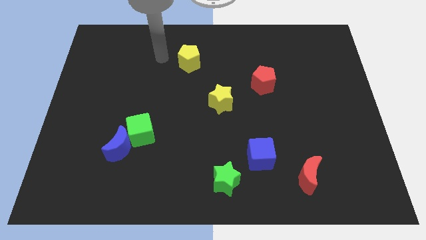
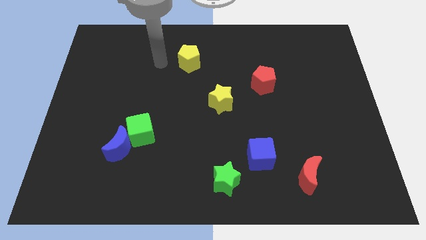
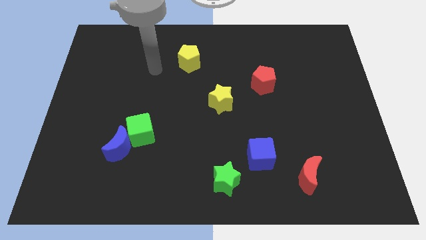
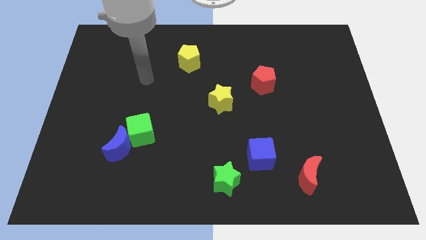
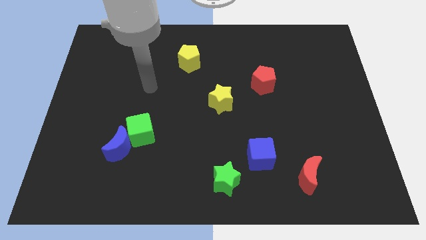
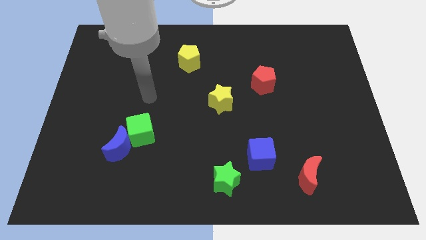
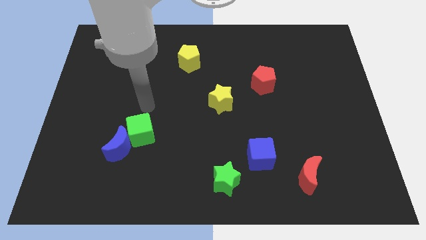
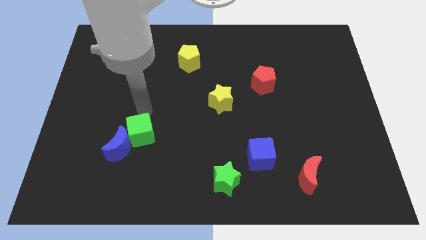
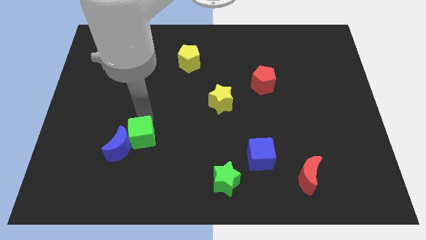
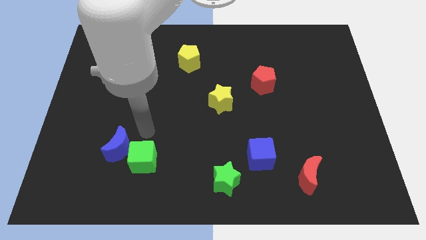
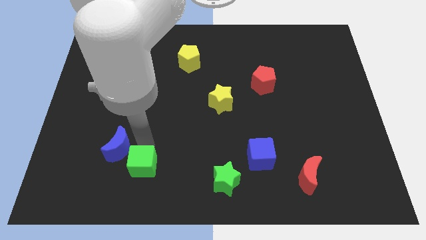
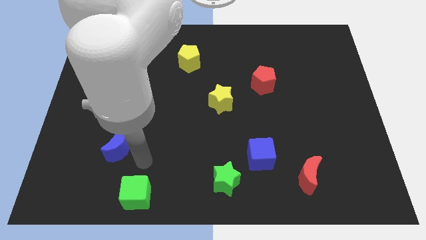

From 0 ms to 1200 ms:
separate the blue moon from the green cube

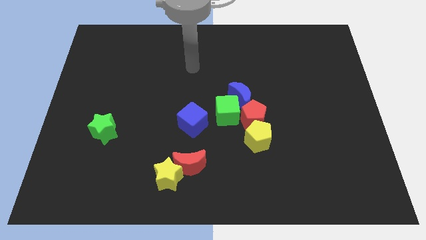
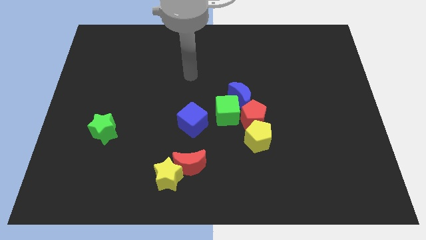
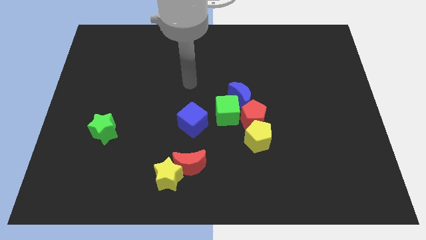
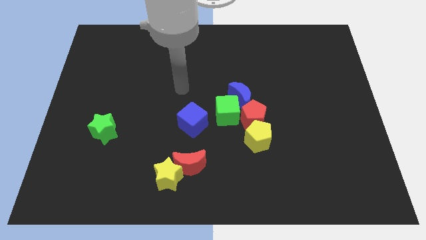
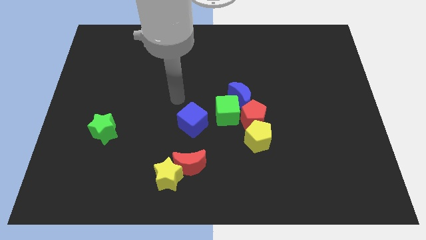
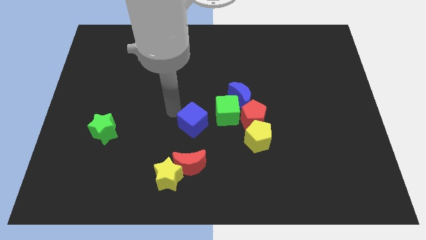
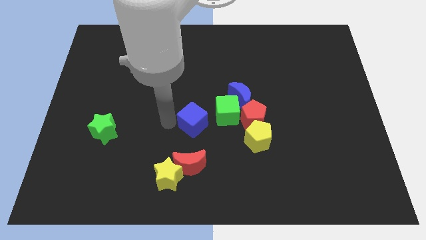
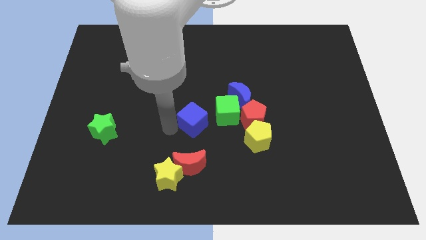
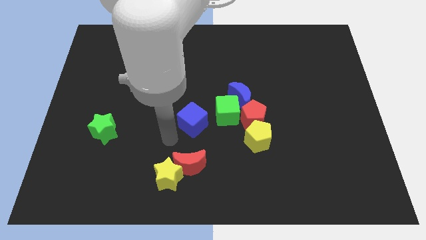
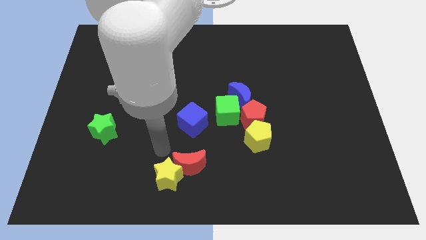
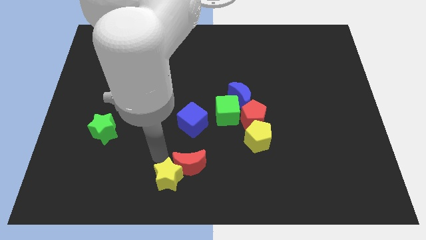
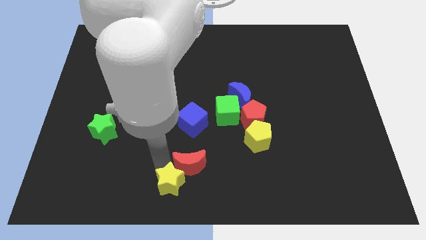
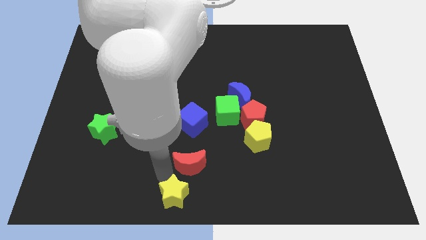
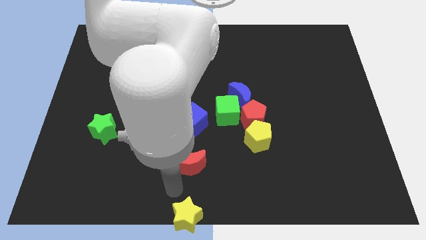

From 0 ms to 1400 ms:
pull the red moon apart from the yellow star

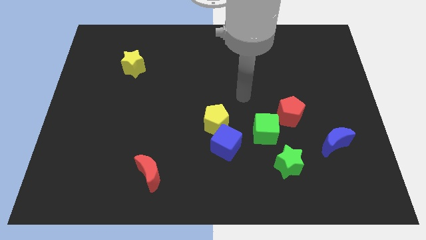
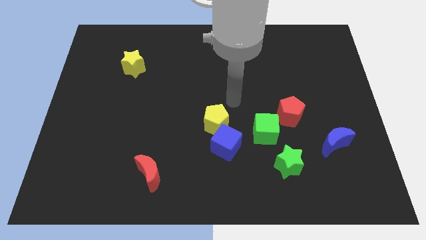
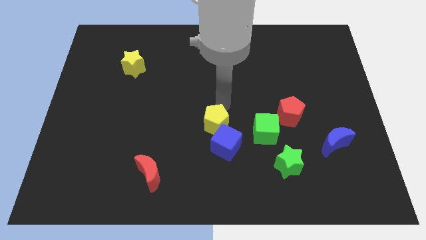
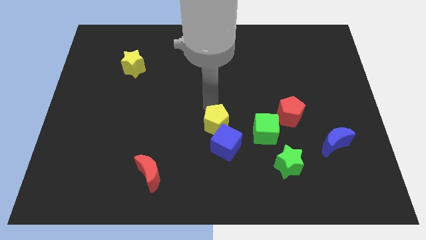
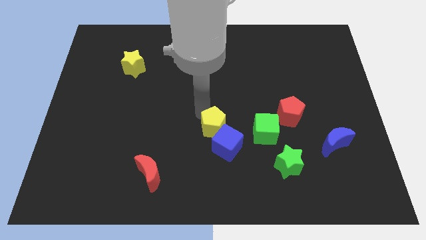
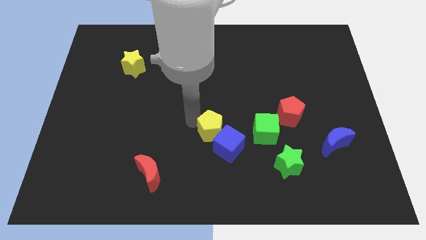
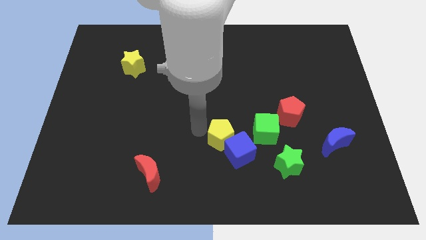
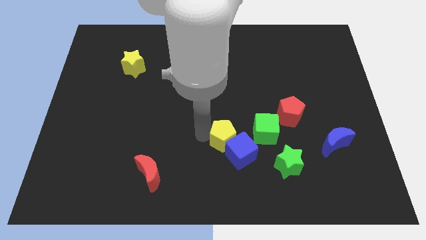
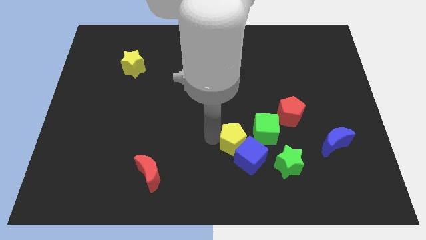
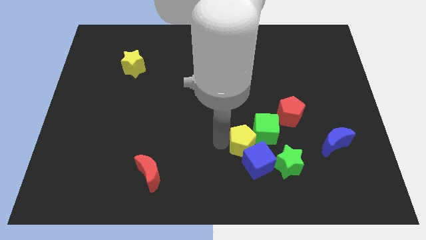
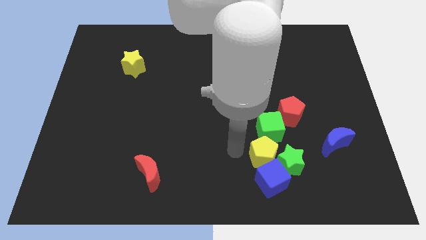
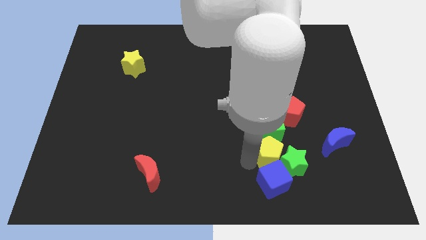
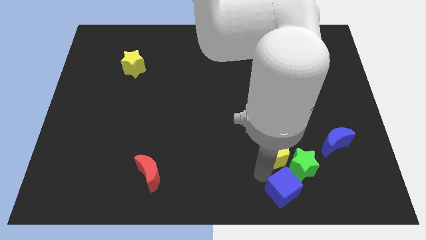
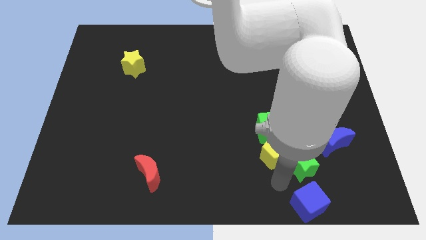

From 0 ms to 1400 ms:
separate the yellow pentagon from the blue cube

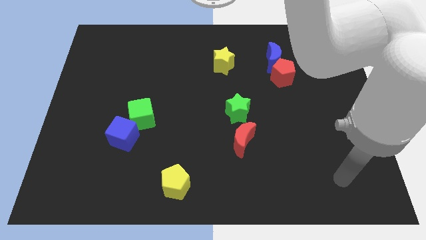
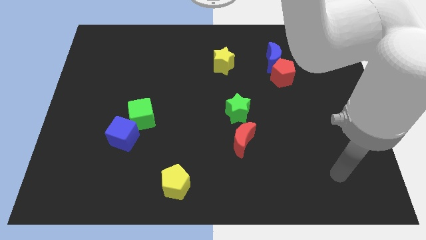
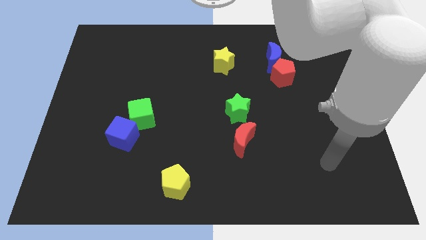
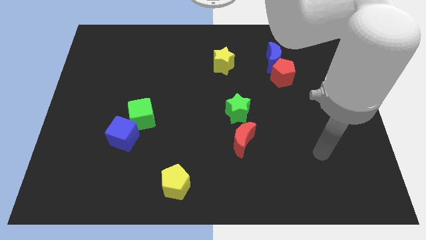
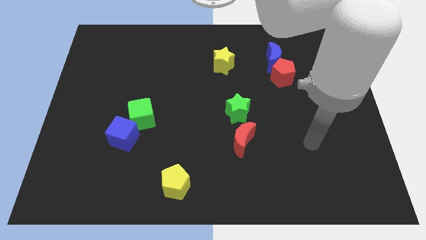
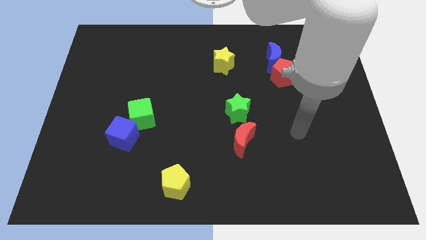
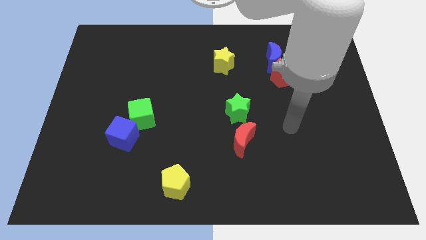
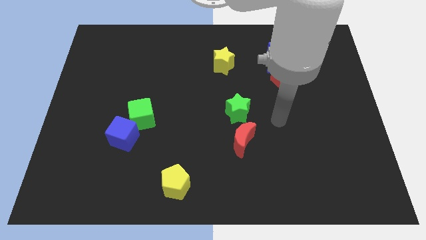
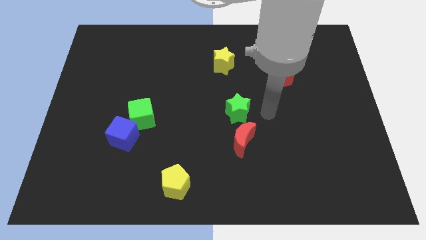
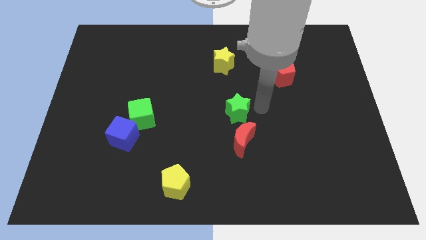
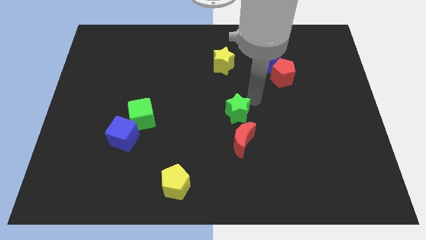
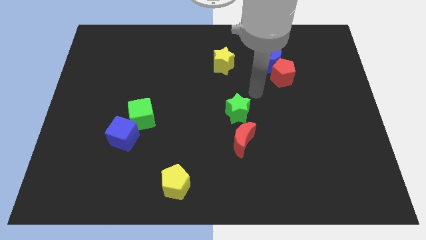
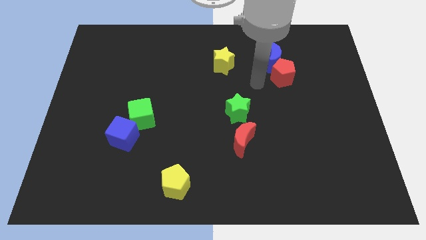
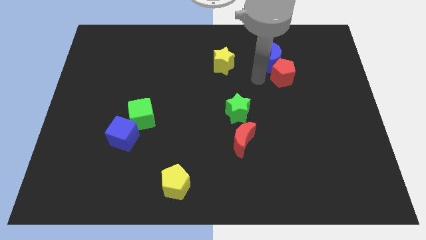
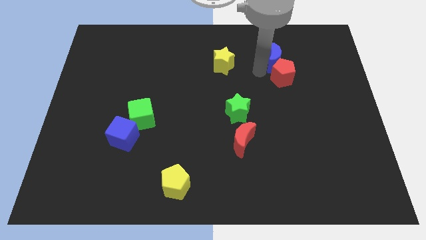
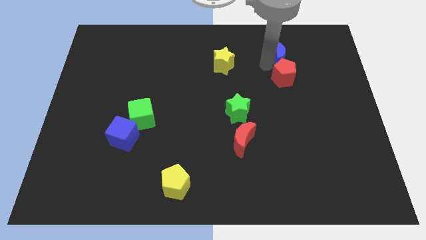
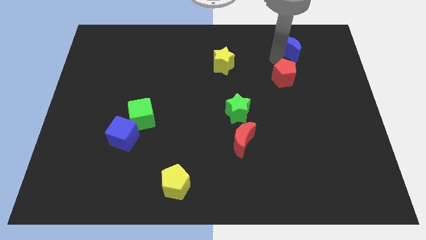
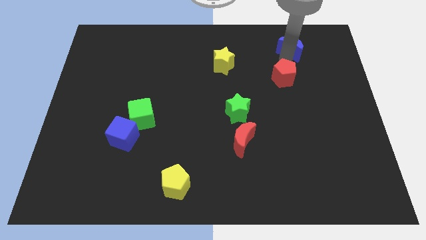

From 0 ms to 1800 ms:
pull the red pentagon apart from the blue moon

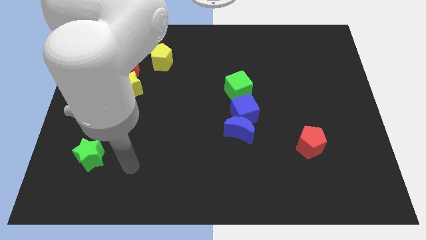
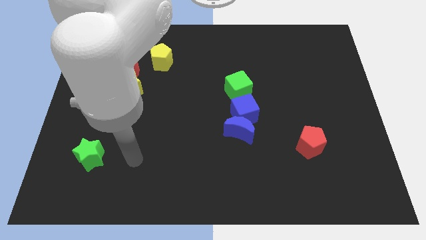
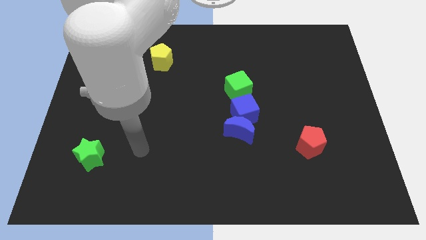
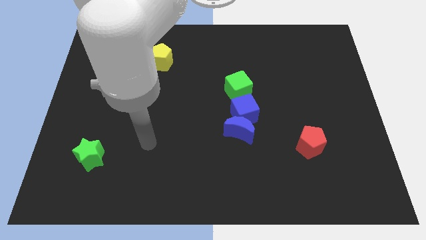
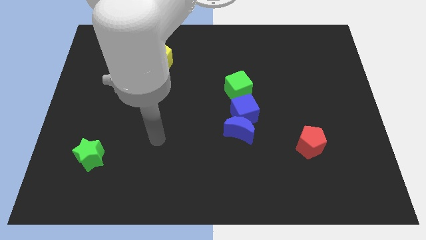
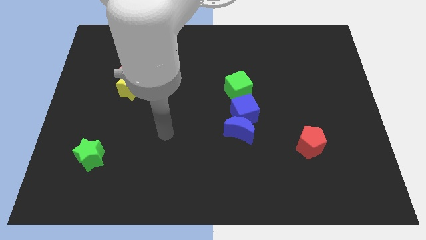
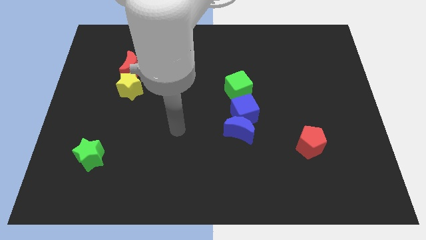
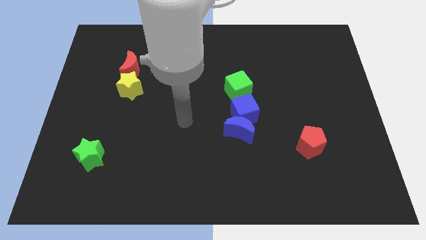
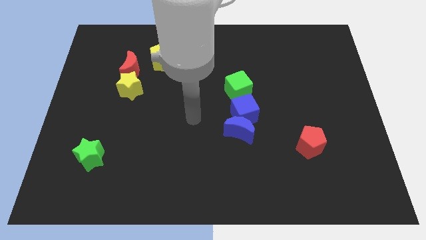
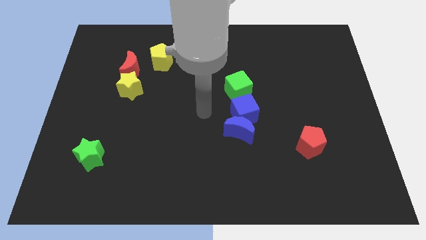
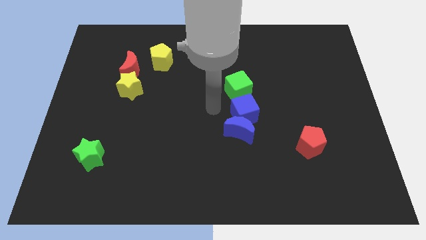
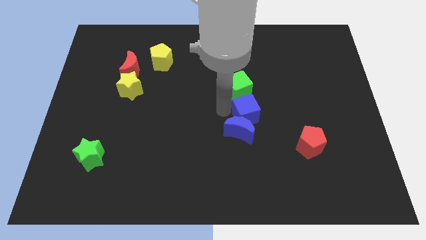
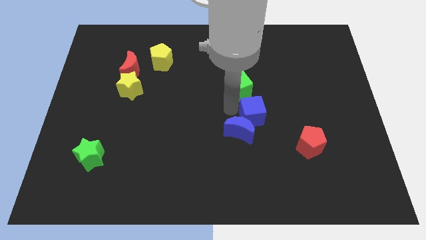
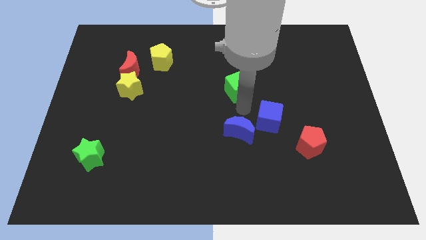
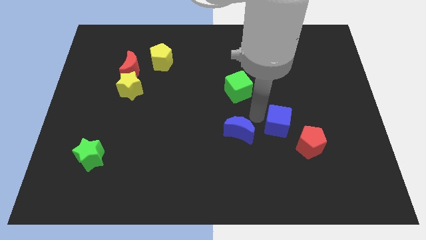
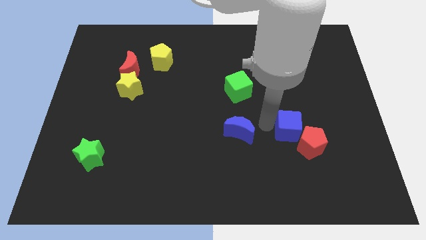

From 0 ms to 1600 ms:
move the blue moon away from the blue cube

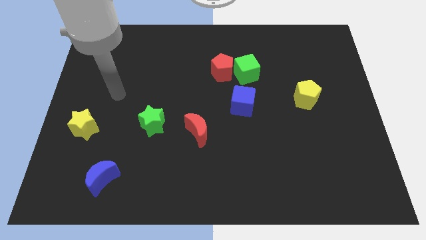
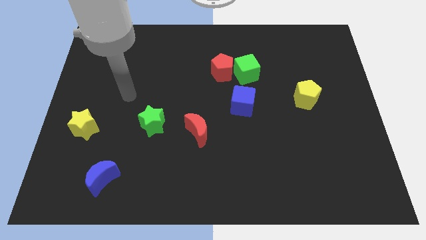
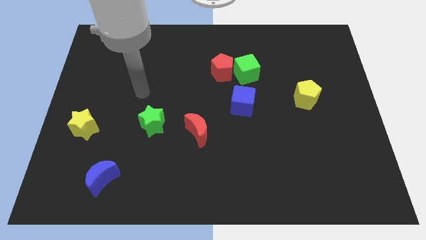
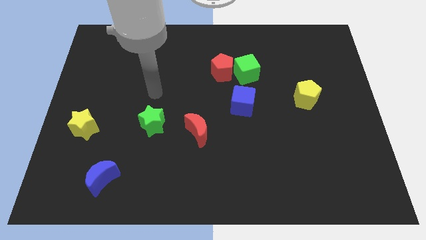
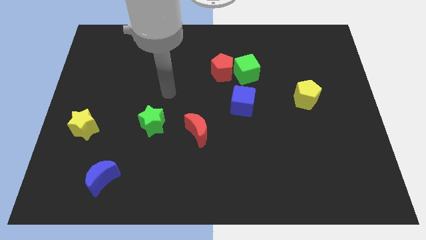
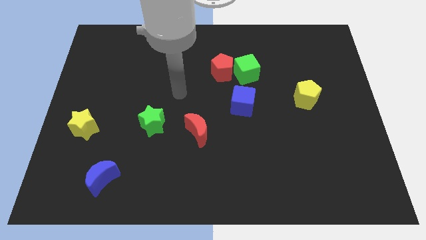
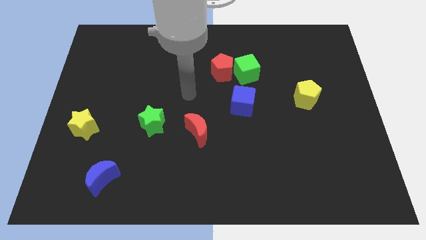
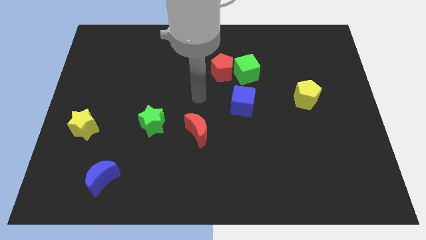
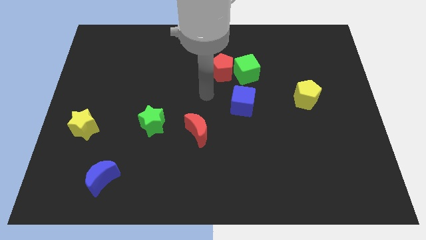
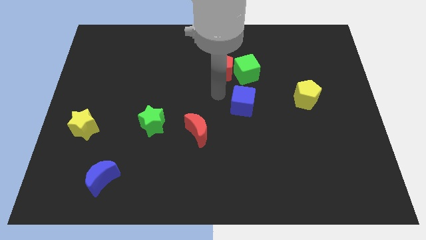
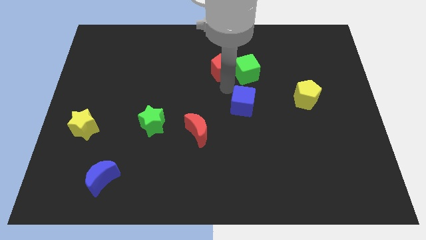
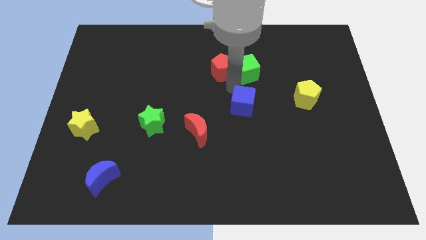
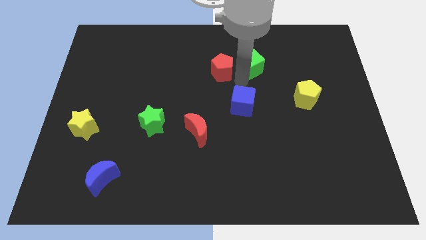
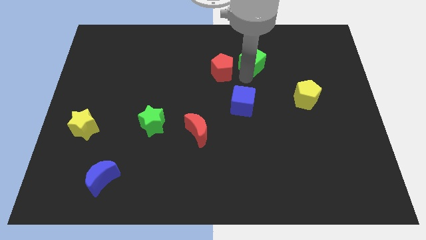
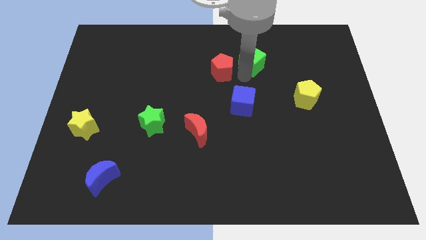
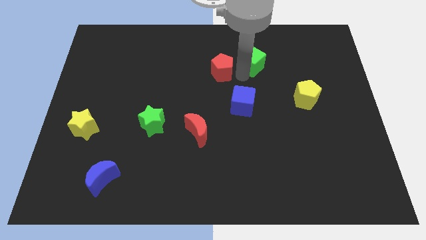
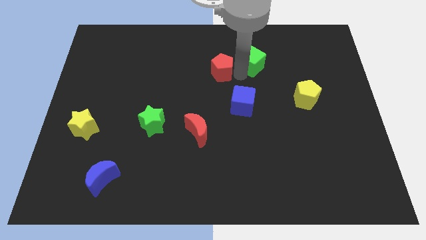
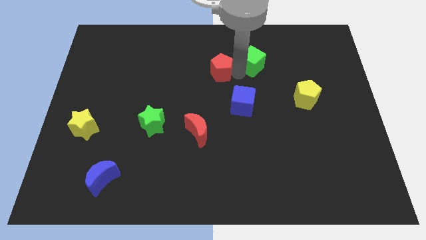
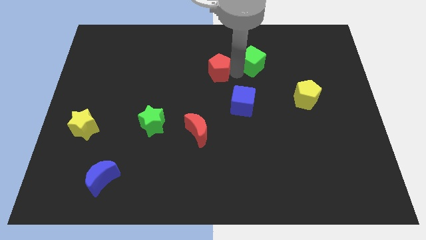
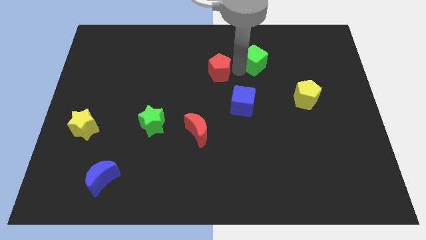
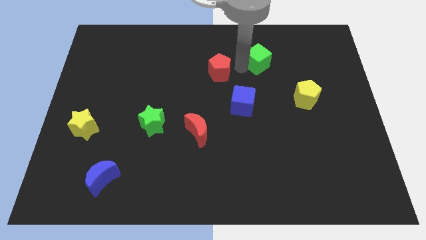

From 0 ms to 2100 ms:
separate the red pentagon from the green cube
